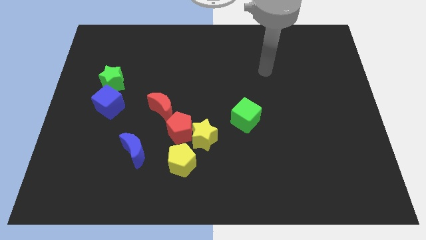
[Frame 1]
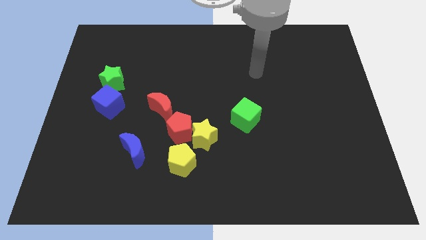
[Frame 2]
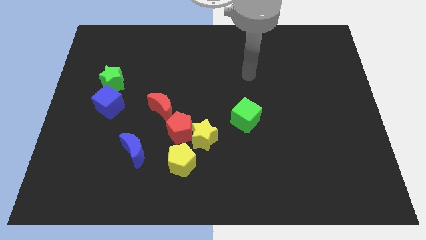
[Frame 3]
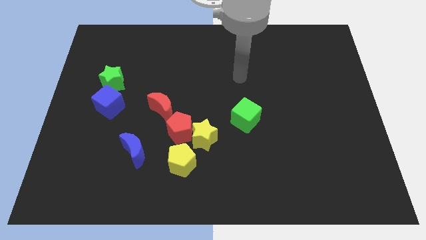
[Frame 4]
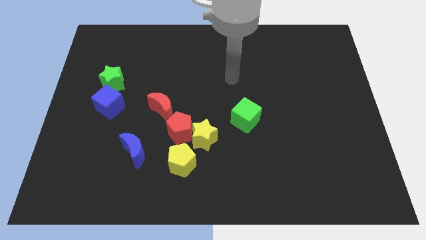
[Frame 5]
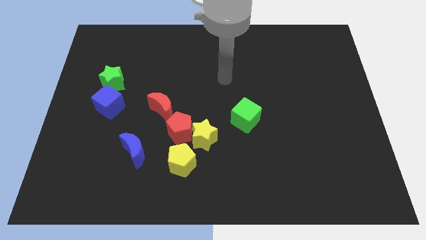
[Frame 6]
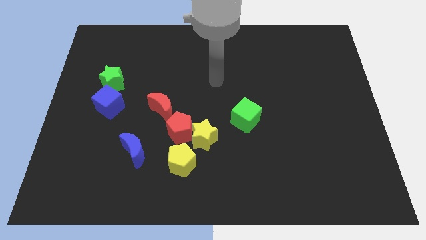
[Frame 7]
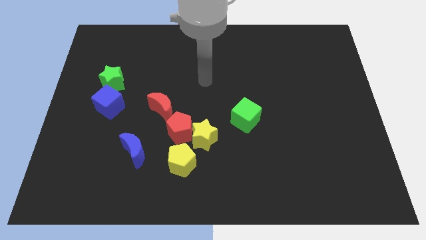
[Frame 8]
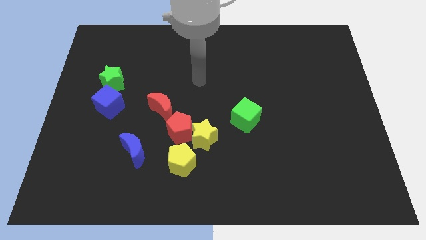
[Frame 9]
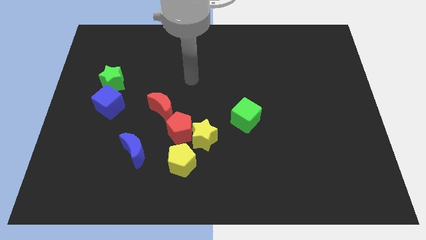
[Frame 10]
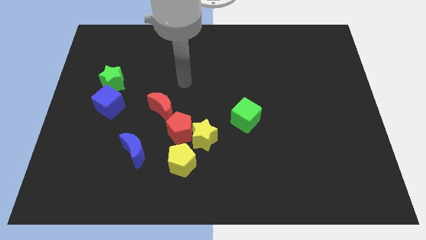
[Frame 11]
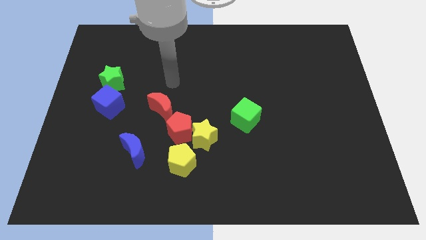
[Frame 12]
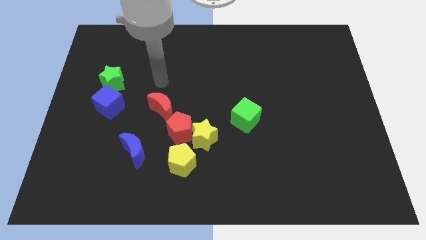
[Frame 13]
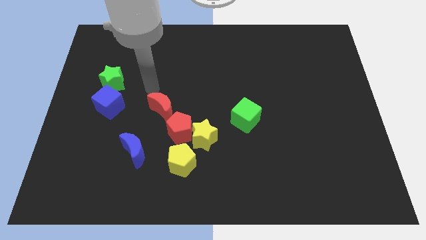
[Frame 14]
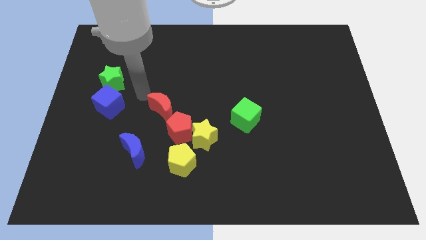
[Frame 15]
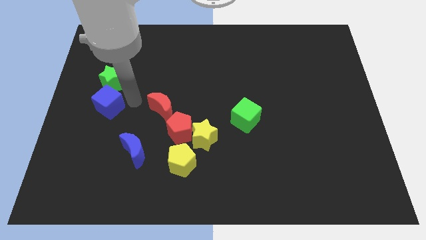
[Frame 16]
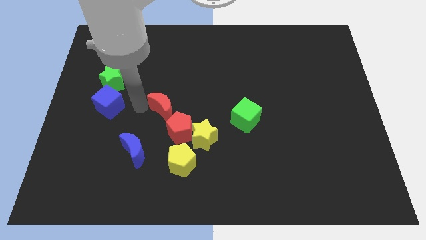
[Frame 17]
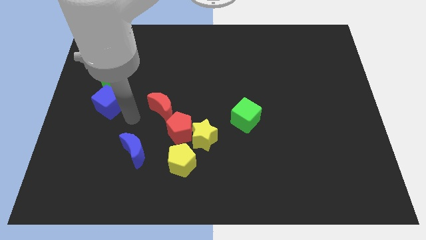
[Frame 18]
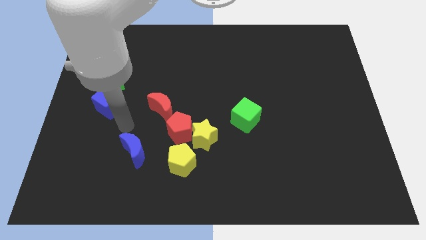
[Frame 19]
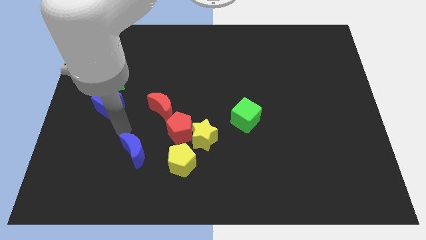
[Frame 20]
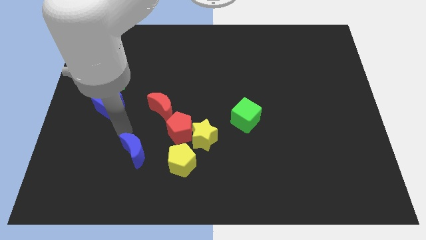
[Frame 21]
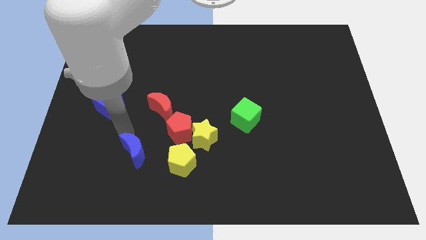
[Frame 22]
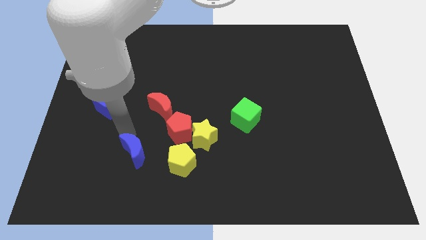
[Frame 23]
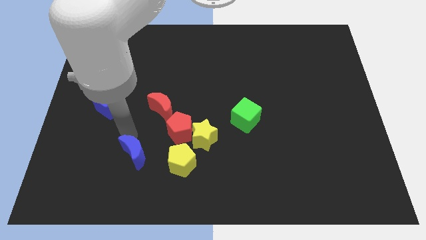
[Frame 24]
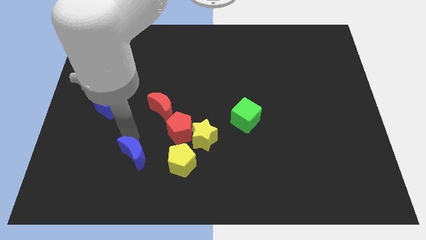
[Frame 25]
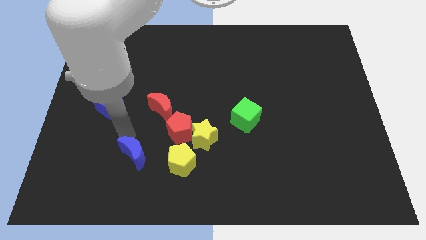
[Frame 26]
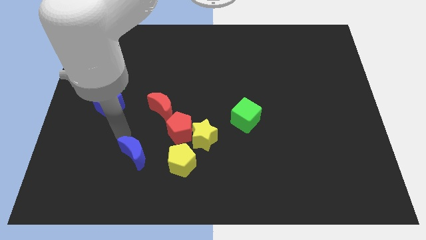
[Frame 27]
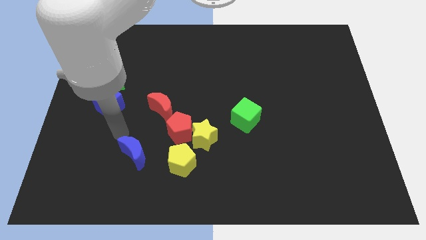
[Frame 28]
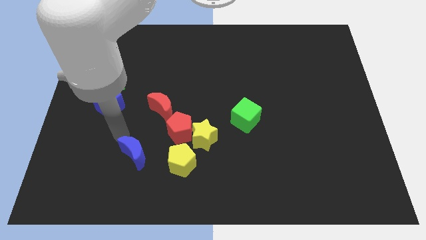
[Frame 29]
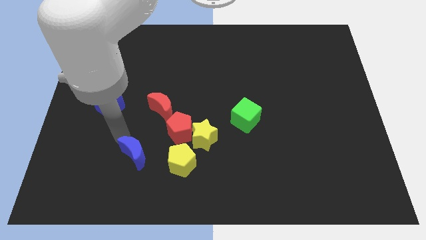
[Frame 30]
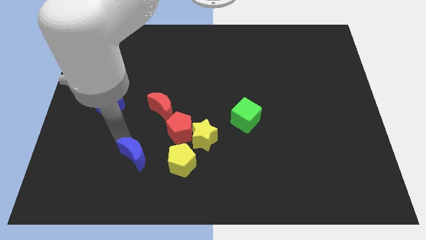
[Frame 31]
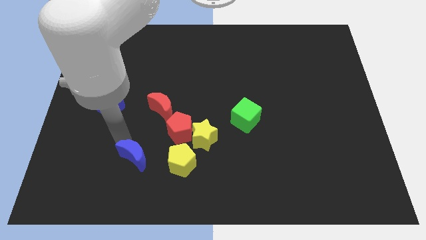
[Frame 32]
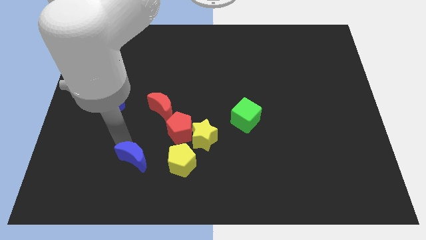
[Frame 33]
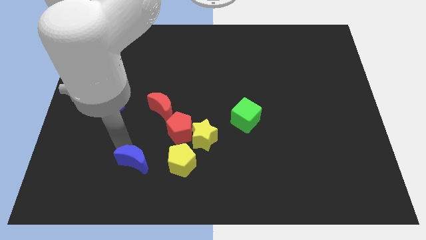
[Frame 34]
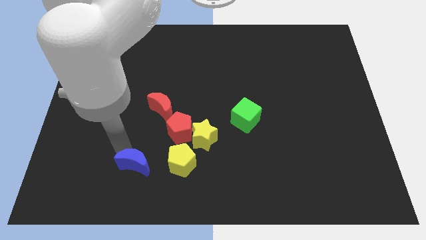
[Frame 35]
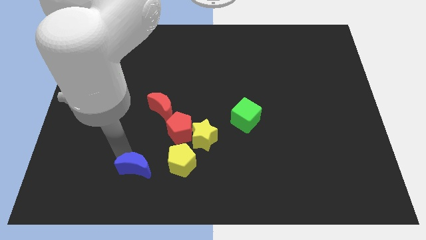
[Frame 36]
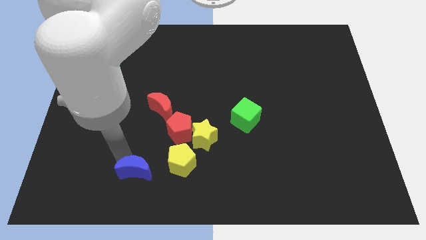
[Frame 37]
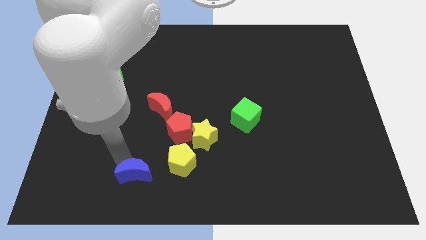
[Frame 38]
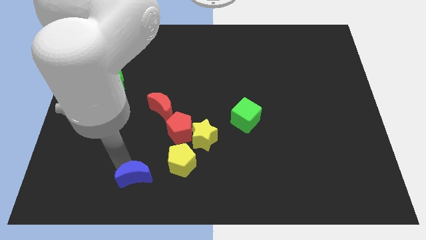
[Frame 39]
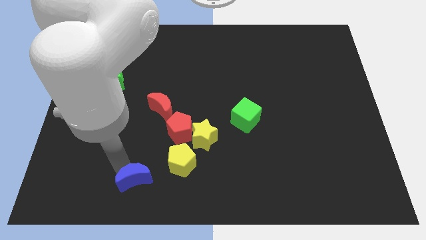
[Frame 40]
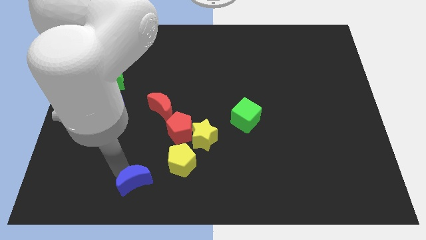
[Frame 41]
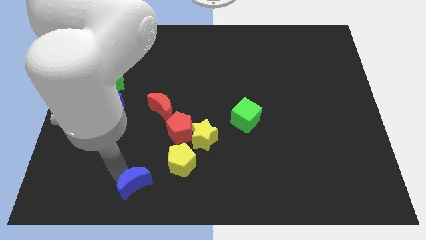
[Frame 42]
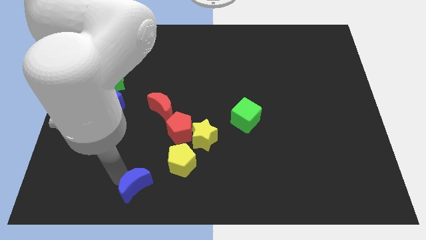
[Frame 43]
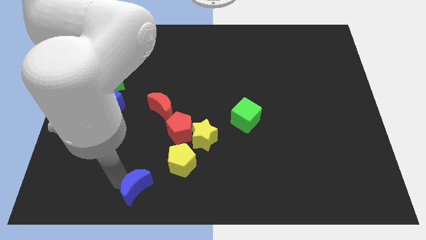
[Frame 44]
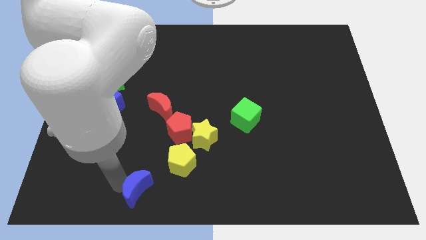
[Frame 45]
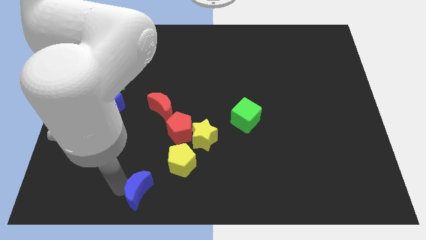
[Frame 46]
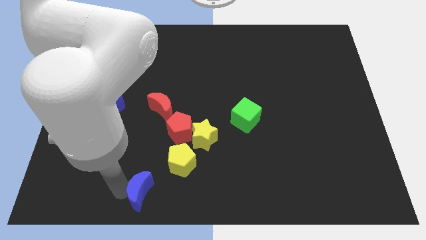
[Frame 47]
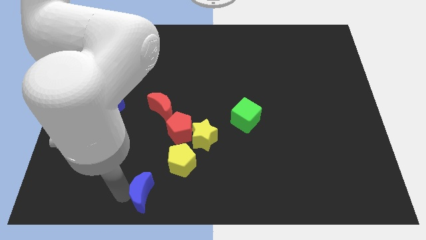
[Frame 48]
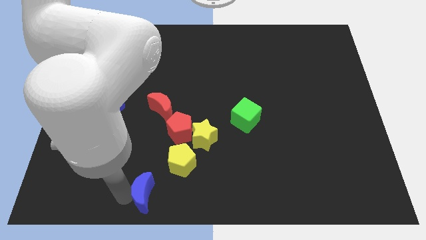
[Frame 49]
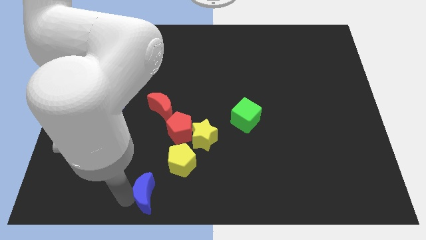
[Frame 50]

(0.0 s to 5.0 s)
push the blue moon to the bottom

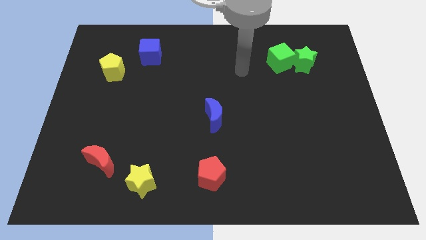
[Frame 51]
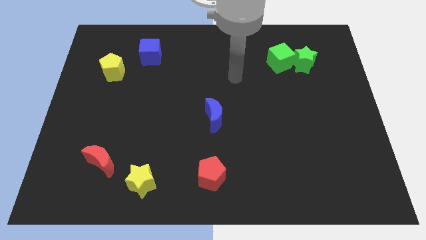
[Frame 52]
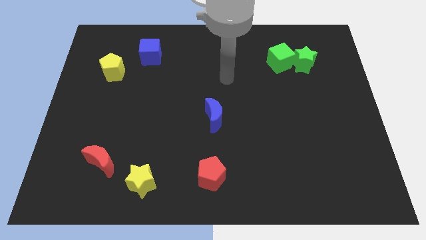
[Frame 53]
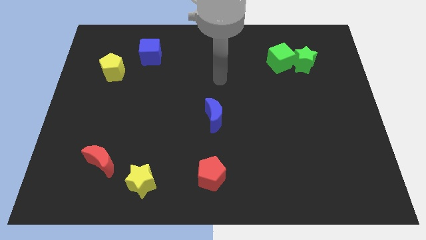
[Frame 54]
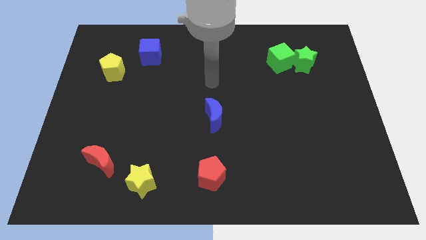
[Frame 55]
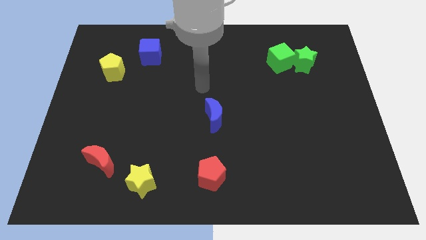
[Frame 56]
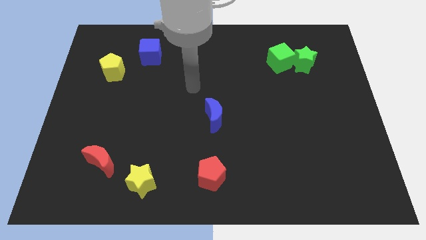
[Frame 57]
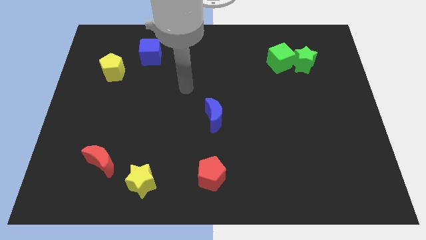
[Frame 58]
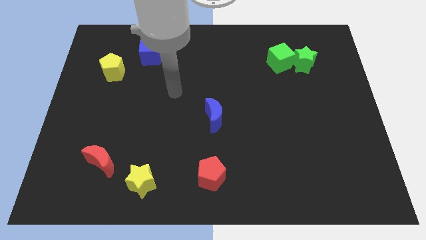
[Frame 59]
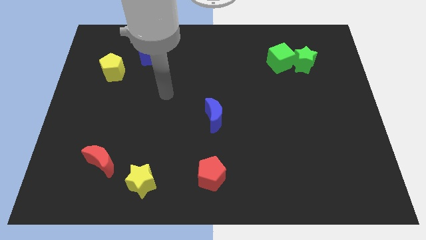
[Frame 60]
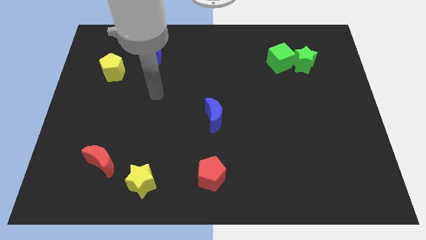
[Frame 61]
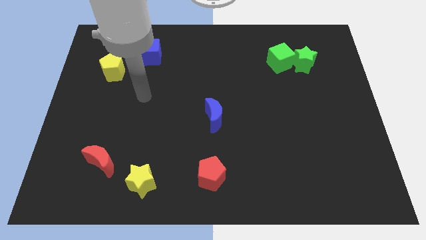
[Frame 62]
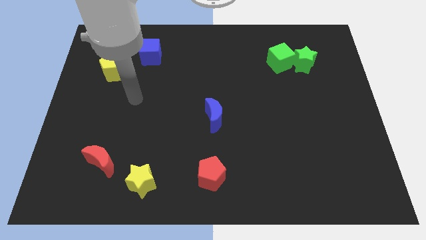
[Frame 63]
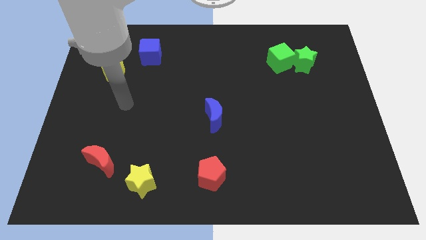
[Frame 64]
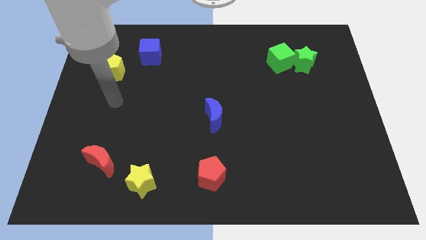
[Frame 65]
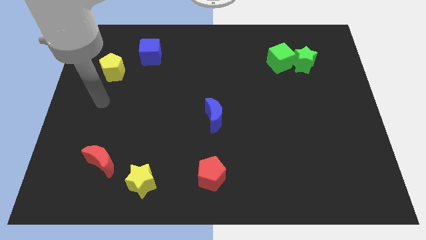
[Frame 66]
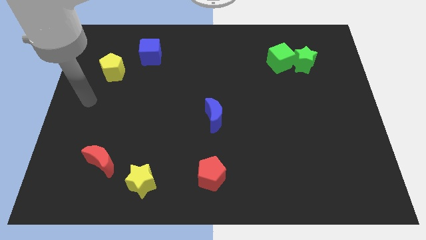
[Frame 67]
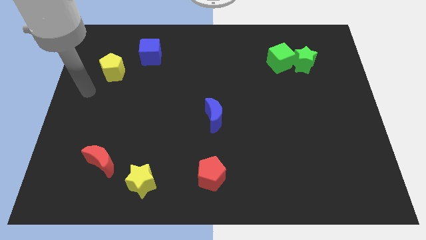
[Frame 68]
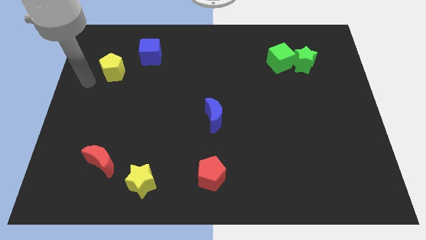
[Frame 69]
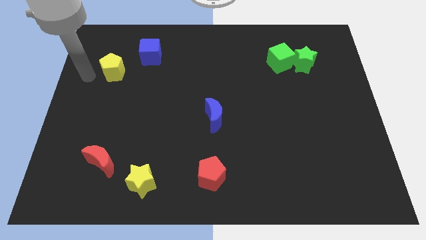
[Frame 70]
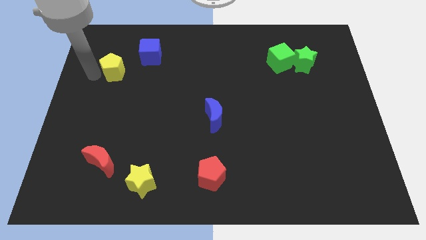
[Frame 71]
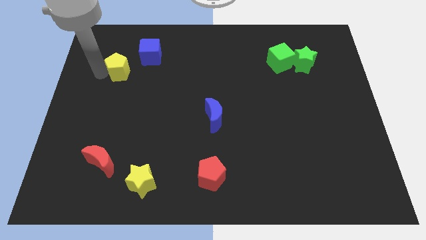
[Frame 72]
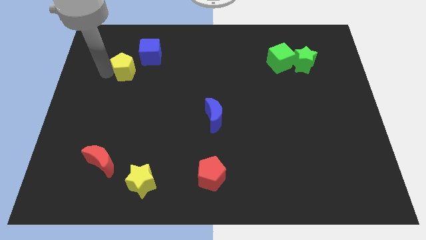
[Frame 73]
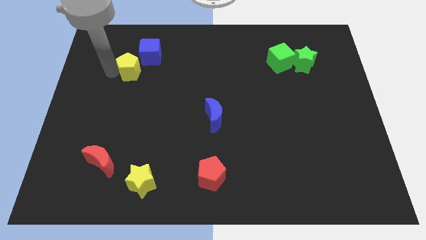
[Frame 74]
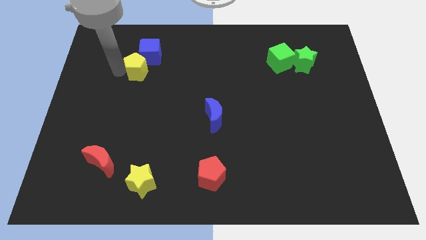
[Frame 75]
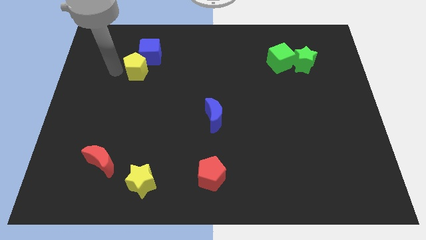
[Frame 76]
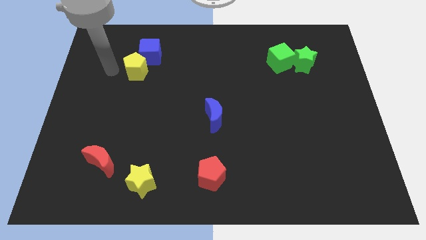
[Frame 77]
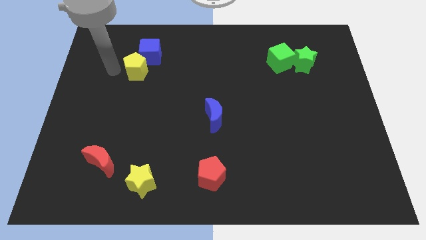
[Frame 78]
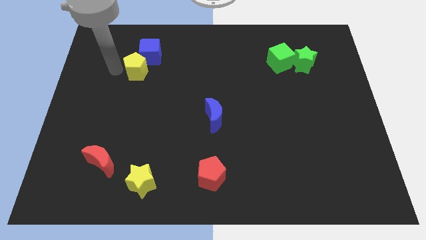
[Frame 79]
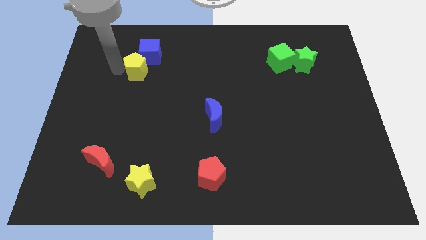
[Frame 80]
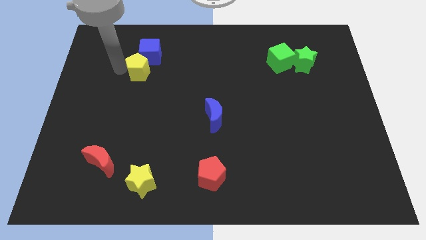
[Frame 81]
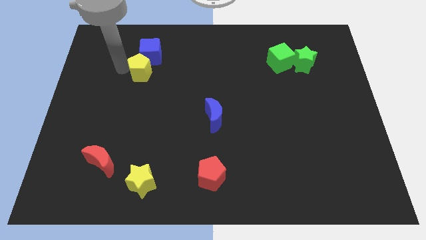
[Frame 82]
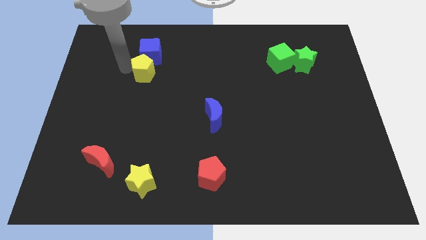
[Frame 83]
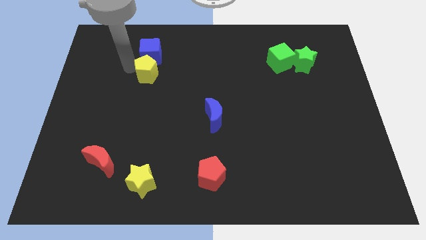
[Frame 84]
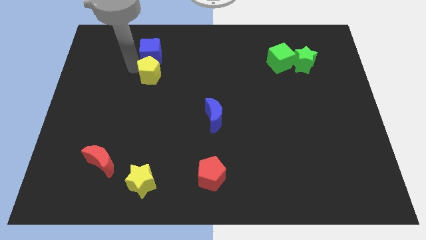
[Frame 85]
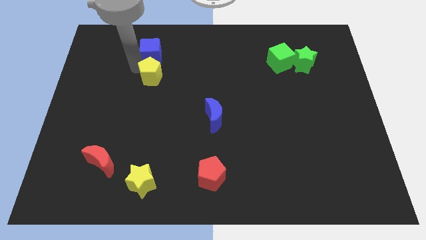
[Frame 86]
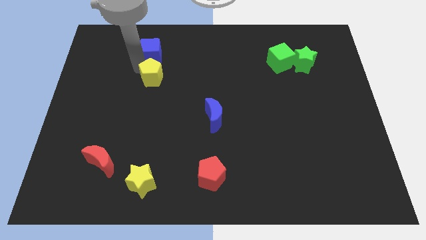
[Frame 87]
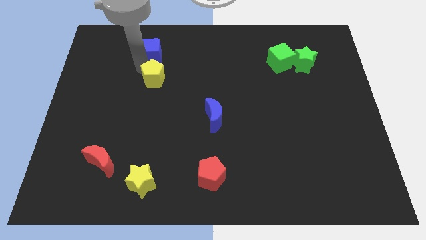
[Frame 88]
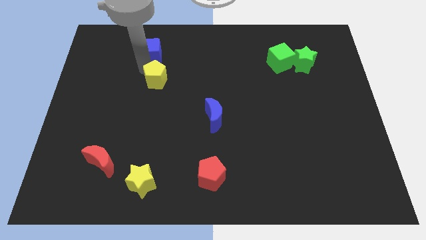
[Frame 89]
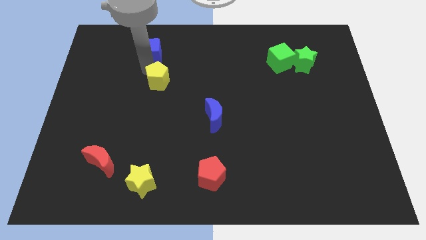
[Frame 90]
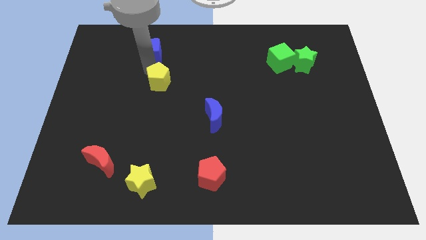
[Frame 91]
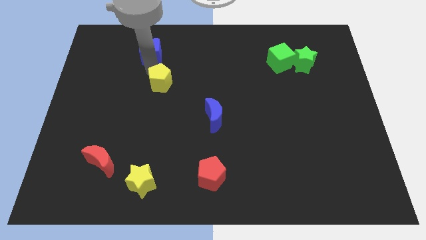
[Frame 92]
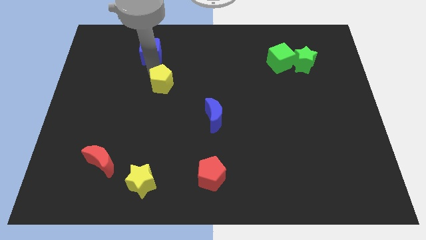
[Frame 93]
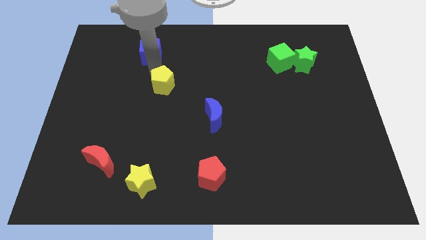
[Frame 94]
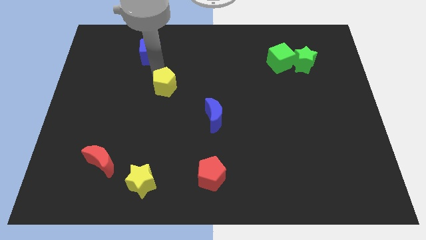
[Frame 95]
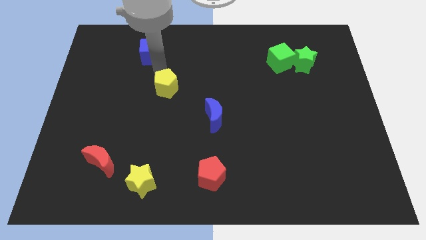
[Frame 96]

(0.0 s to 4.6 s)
slide the yellow pentagon to the center
